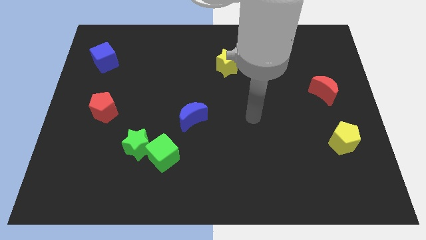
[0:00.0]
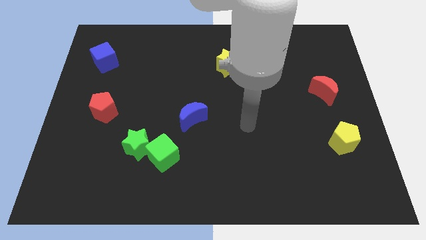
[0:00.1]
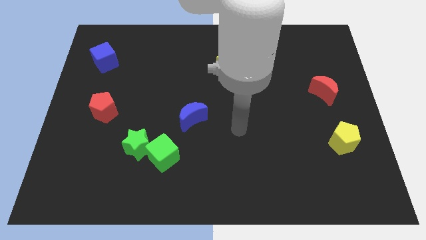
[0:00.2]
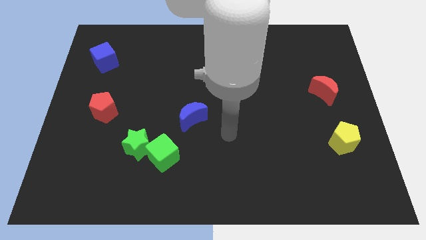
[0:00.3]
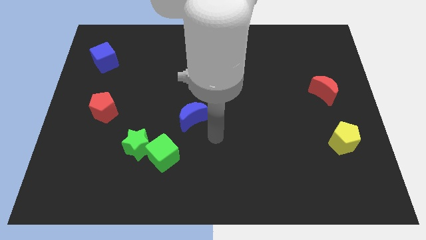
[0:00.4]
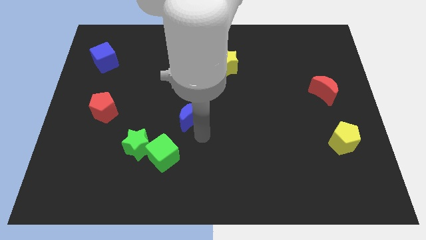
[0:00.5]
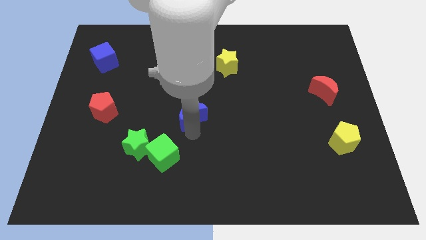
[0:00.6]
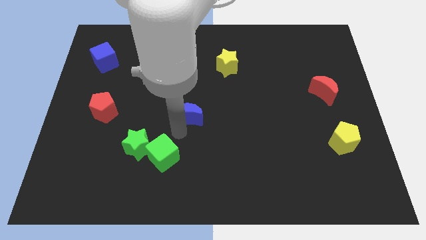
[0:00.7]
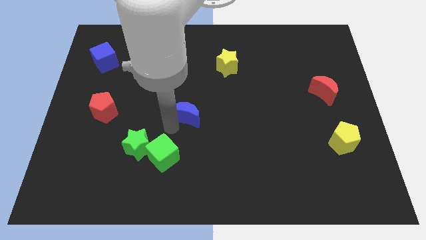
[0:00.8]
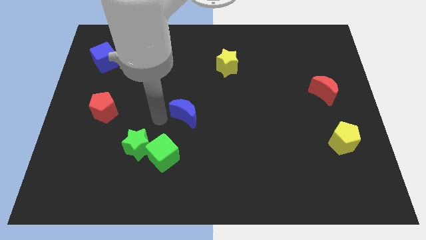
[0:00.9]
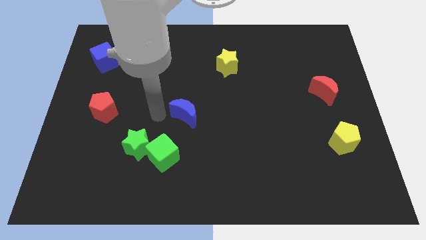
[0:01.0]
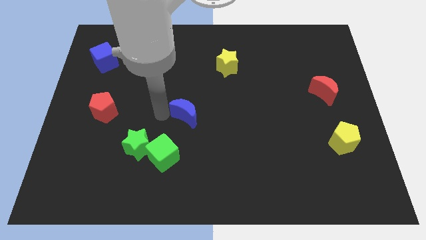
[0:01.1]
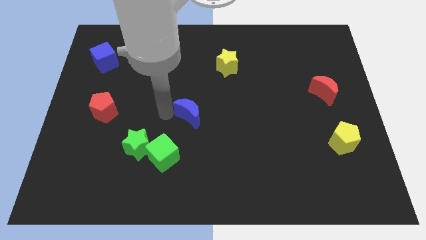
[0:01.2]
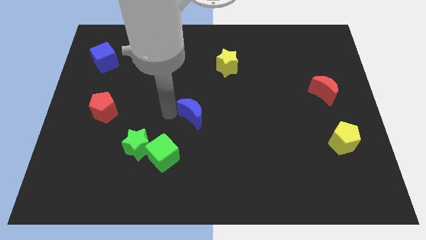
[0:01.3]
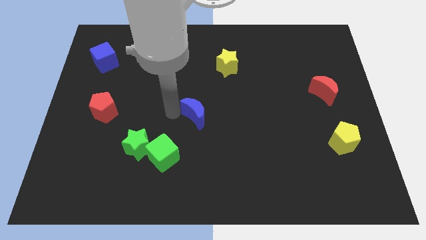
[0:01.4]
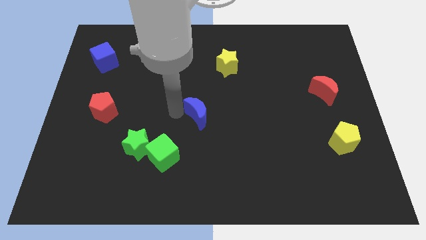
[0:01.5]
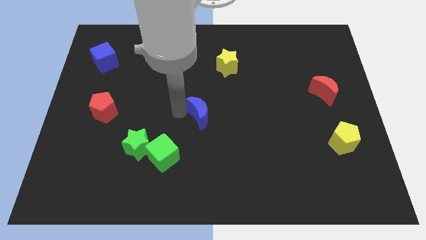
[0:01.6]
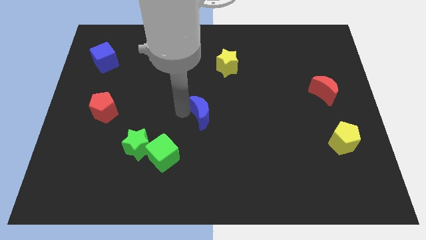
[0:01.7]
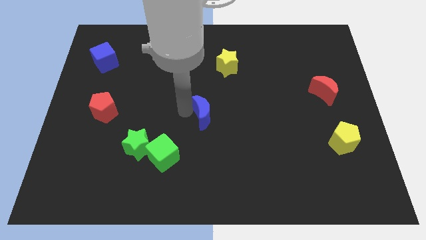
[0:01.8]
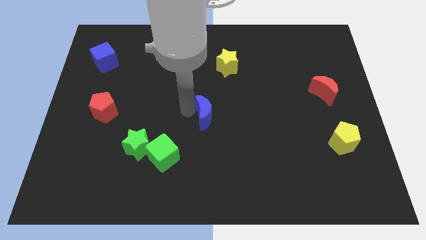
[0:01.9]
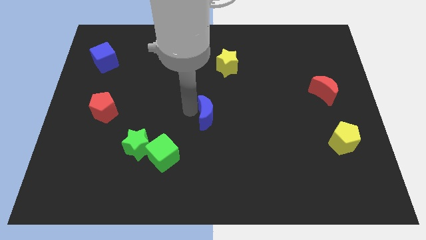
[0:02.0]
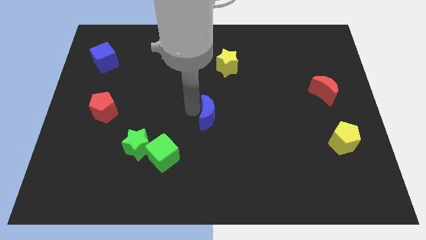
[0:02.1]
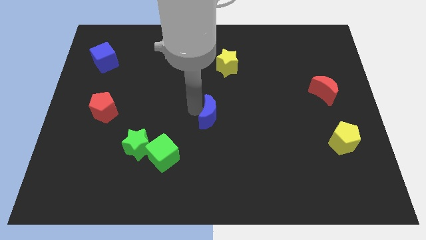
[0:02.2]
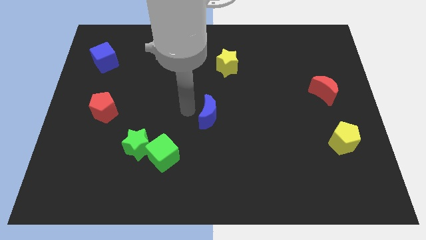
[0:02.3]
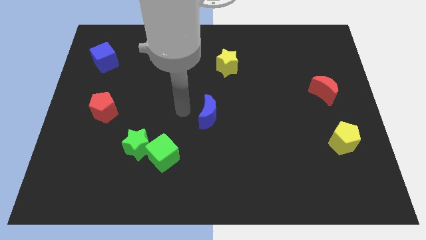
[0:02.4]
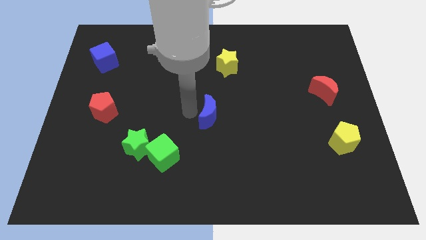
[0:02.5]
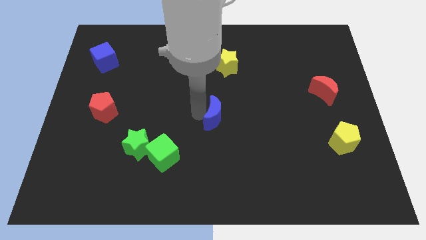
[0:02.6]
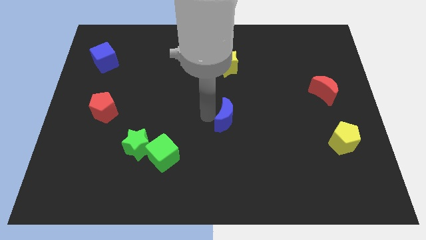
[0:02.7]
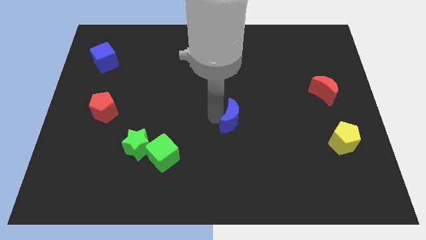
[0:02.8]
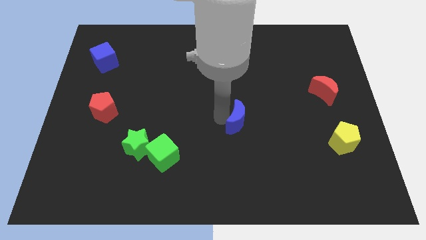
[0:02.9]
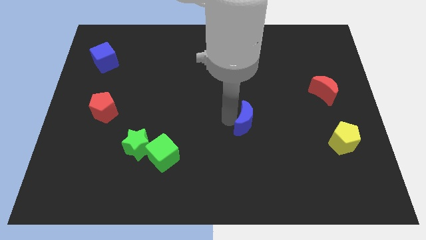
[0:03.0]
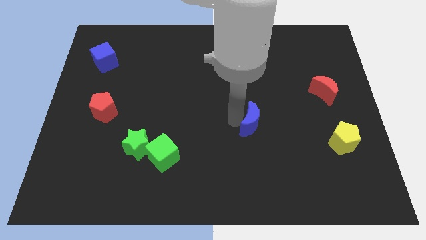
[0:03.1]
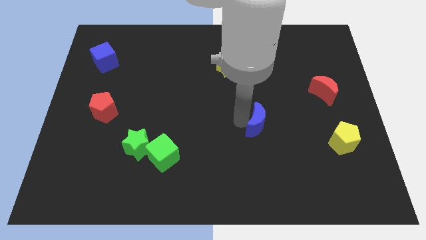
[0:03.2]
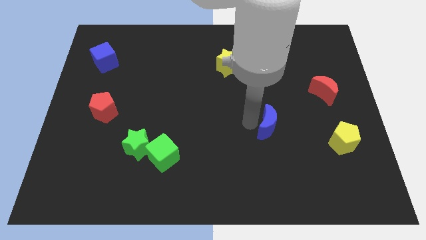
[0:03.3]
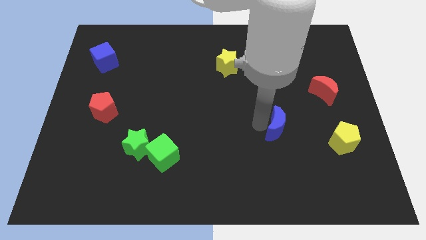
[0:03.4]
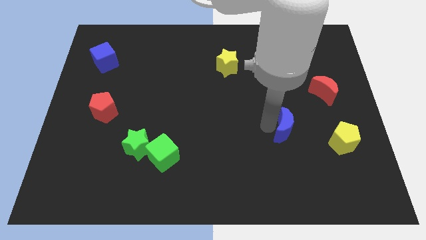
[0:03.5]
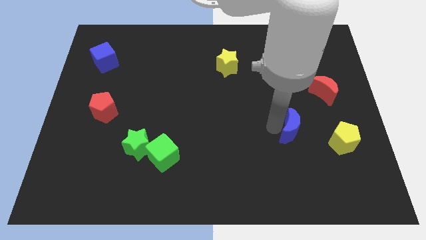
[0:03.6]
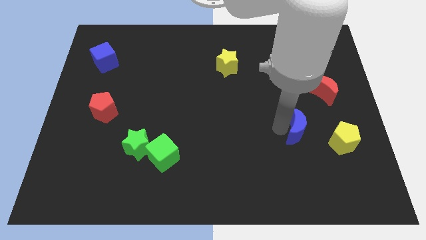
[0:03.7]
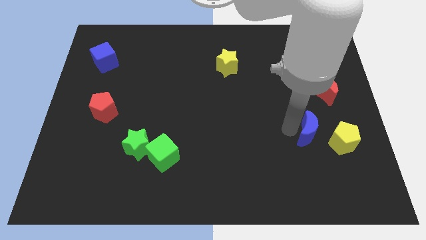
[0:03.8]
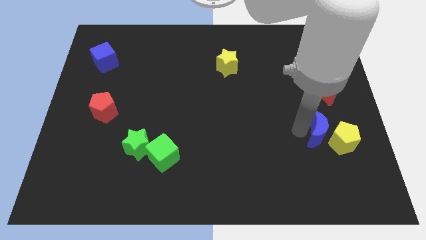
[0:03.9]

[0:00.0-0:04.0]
slide the blue moon close to the yellow pentagon

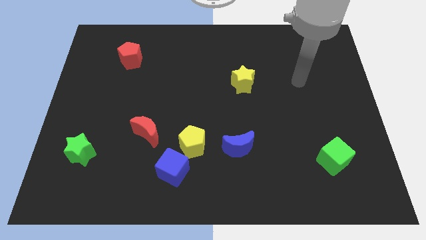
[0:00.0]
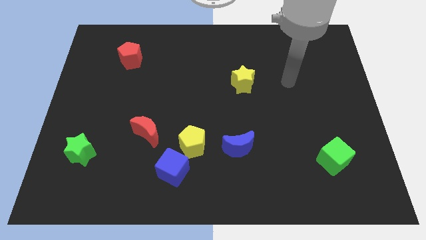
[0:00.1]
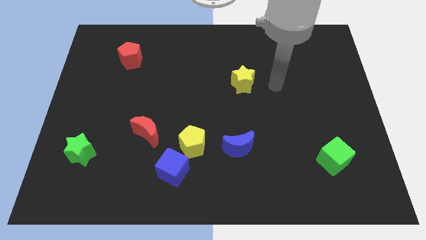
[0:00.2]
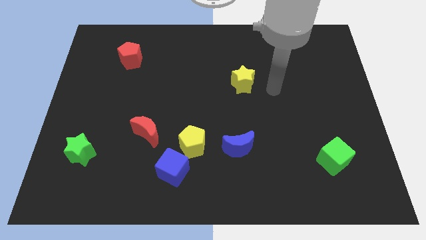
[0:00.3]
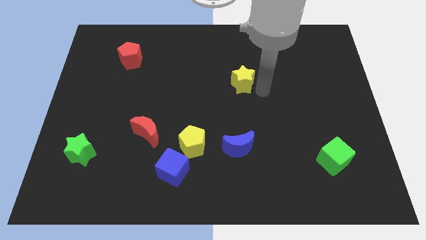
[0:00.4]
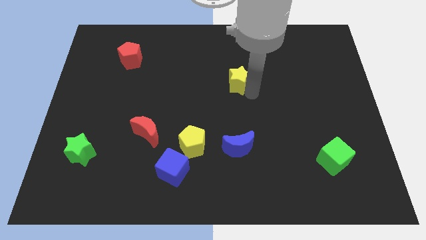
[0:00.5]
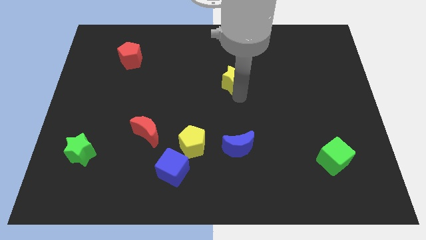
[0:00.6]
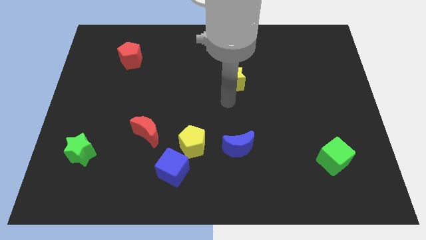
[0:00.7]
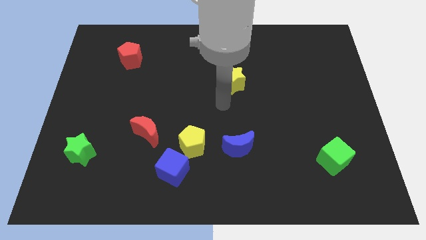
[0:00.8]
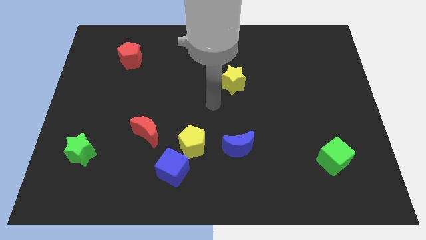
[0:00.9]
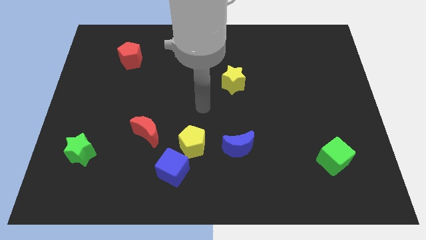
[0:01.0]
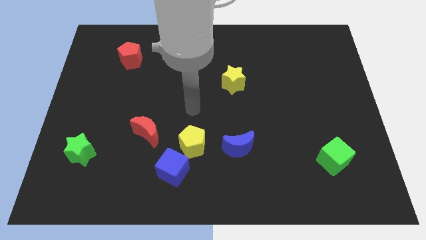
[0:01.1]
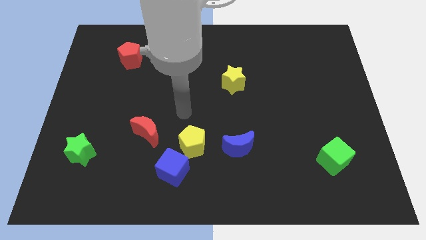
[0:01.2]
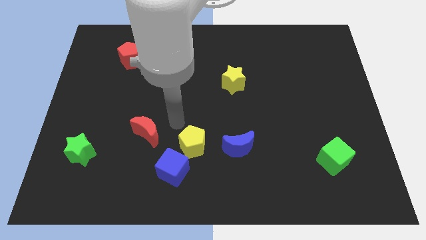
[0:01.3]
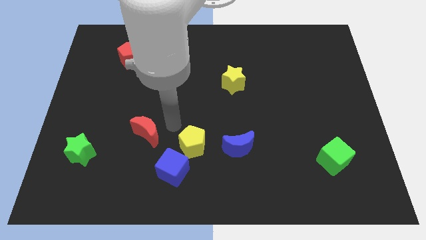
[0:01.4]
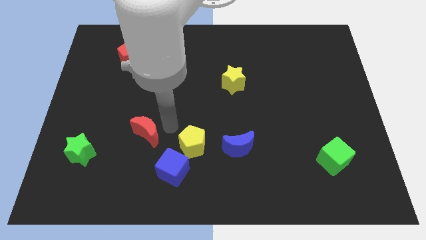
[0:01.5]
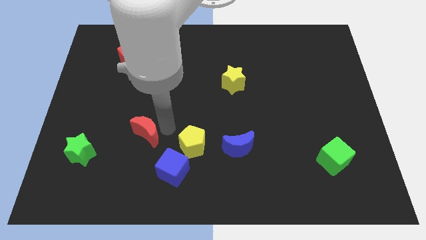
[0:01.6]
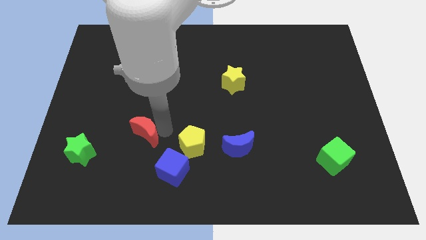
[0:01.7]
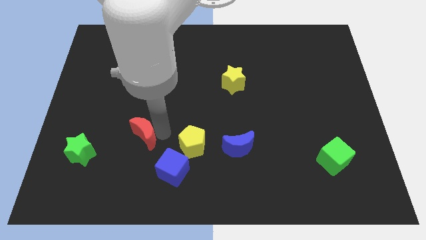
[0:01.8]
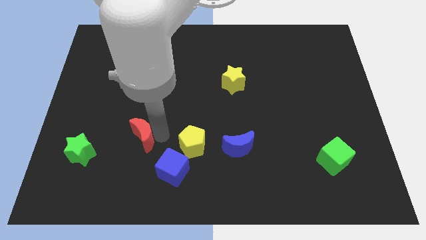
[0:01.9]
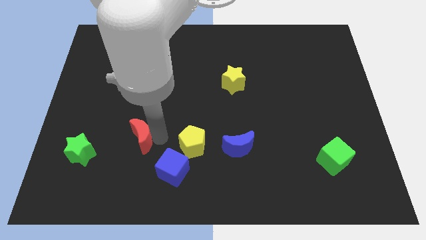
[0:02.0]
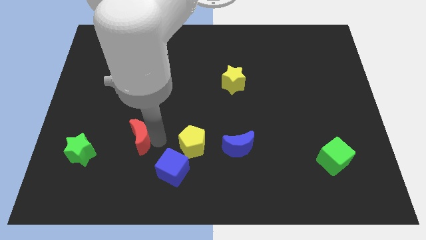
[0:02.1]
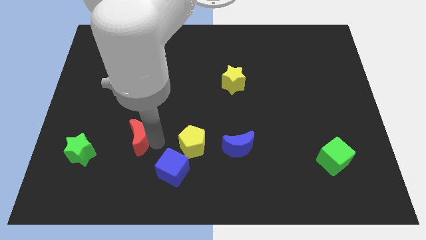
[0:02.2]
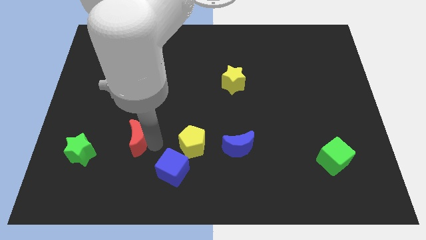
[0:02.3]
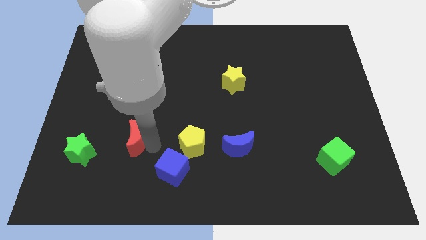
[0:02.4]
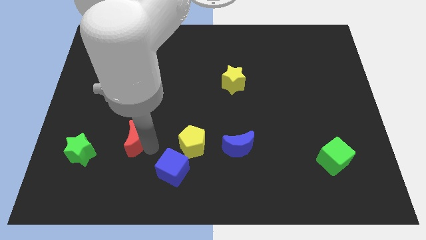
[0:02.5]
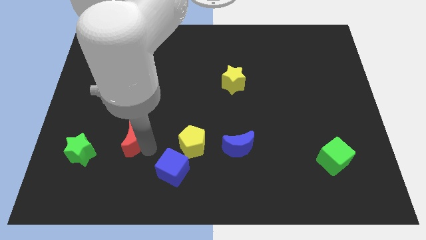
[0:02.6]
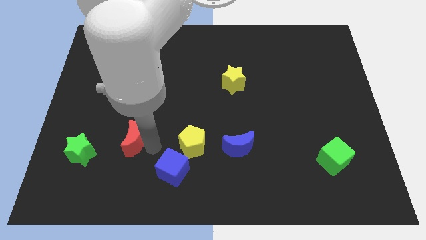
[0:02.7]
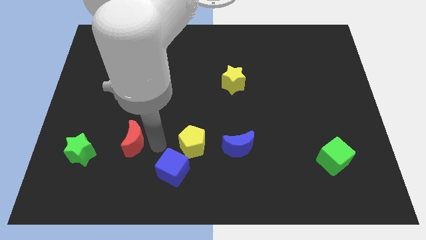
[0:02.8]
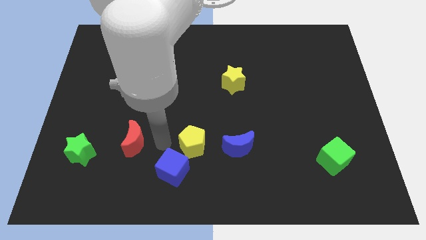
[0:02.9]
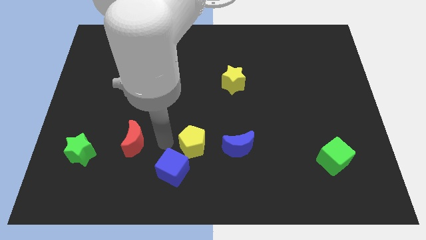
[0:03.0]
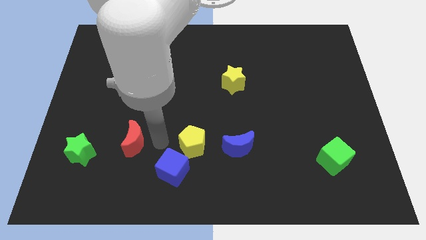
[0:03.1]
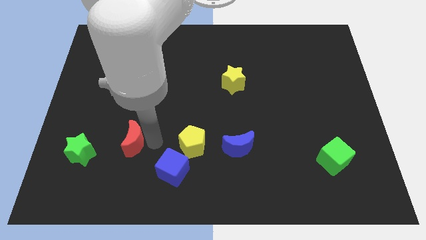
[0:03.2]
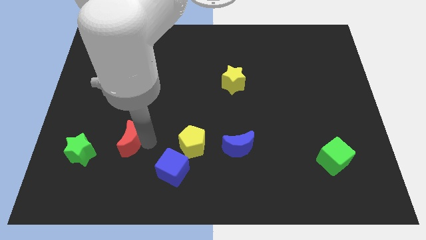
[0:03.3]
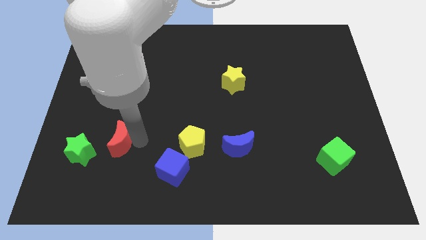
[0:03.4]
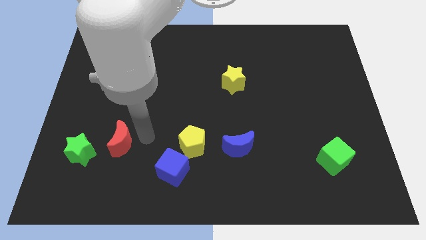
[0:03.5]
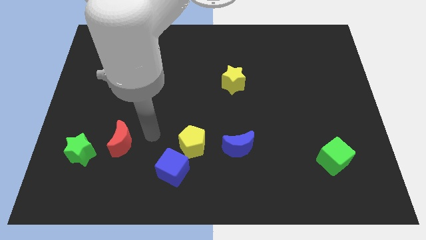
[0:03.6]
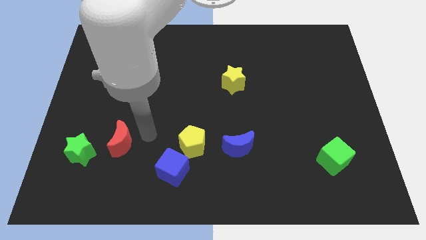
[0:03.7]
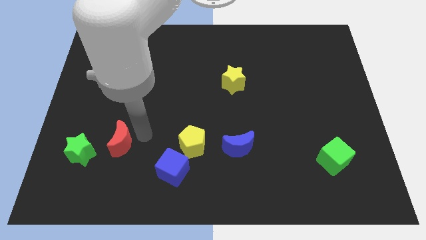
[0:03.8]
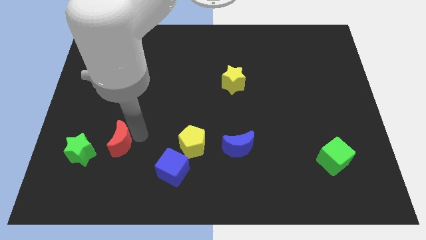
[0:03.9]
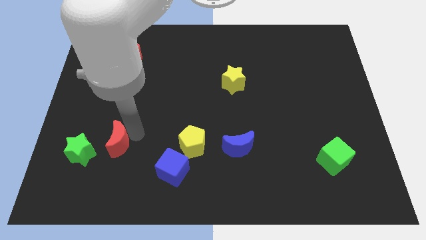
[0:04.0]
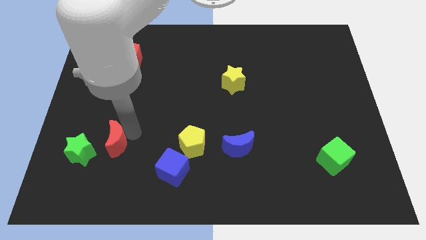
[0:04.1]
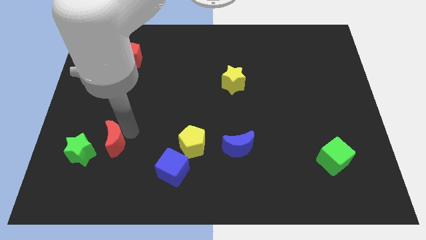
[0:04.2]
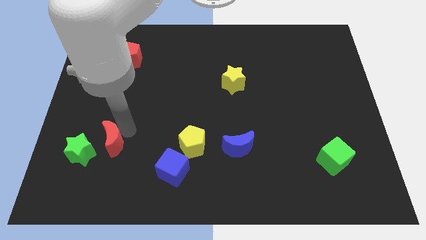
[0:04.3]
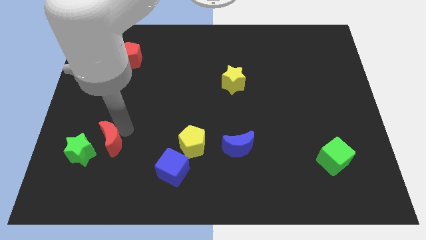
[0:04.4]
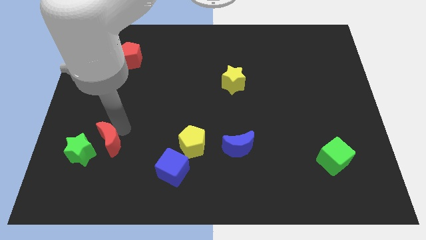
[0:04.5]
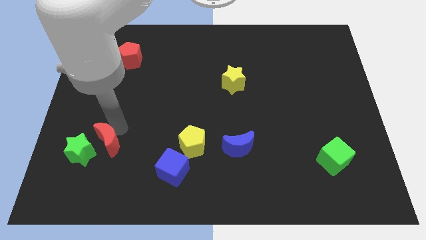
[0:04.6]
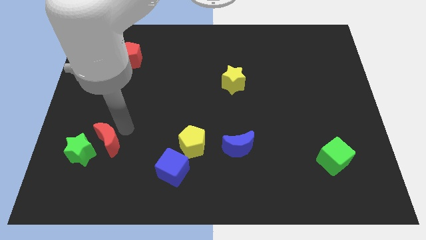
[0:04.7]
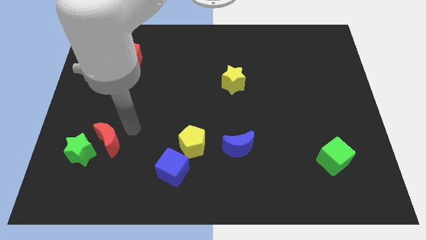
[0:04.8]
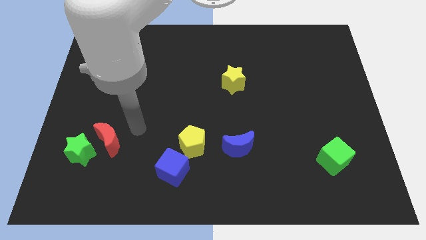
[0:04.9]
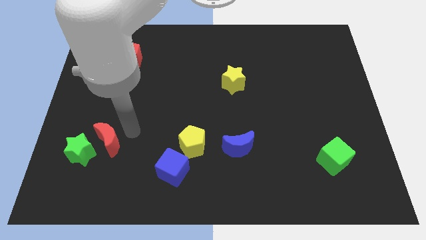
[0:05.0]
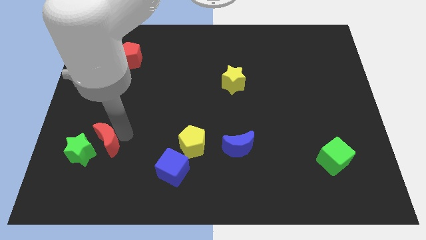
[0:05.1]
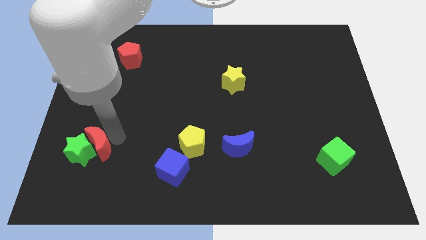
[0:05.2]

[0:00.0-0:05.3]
put the red moon to the green star
